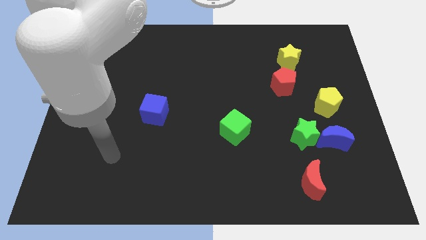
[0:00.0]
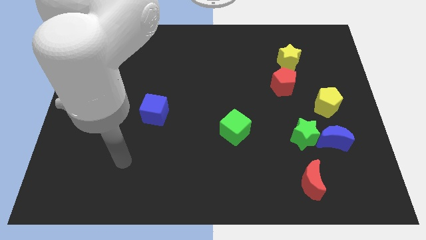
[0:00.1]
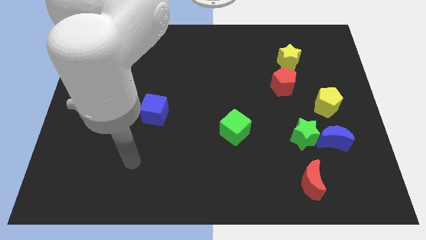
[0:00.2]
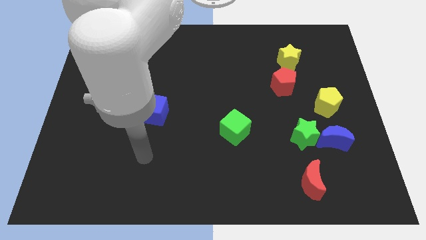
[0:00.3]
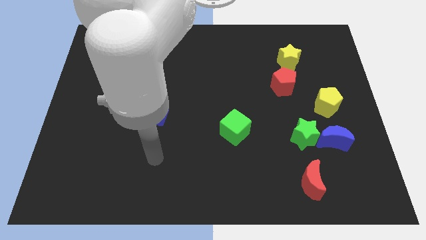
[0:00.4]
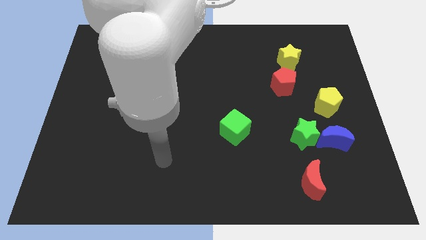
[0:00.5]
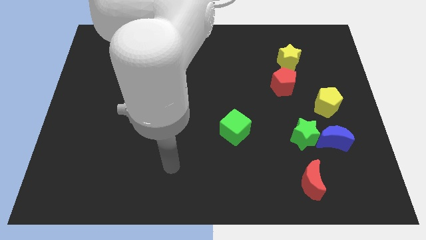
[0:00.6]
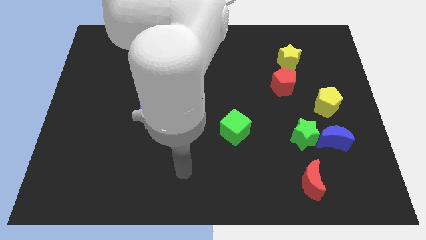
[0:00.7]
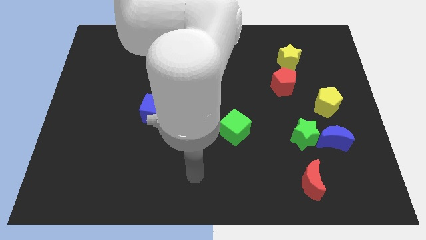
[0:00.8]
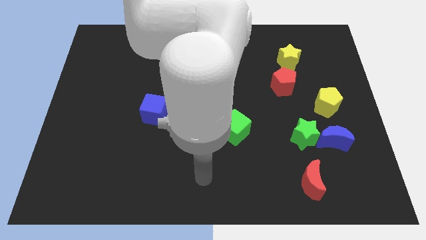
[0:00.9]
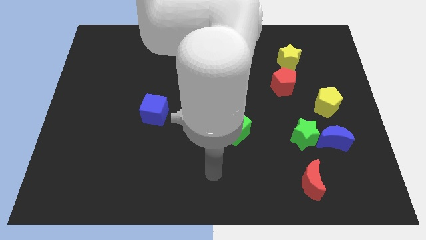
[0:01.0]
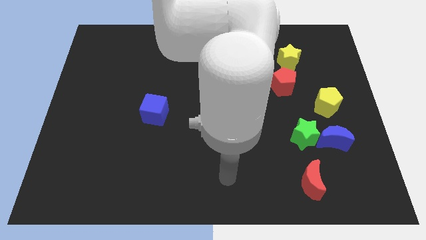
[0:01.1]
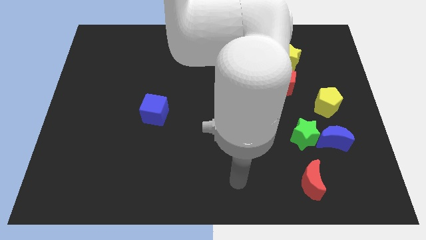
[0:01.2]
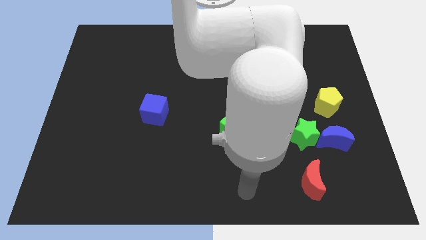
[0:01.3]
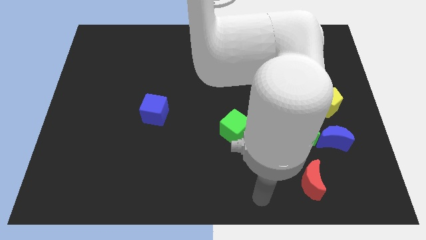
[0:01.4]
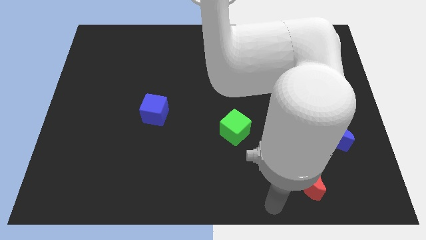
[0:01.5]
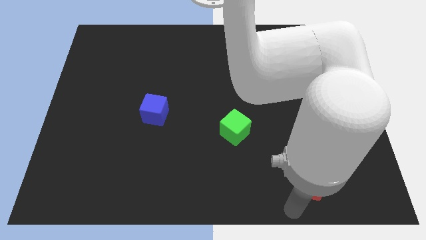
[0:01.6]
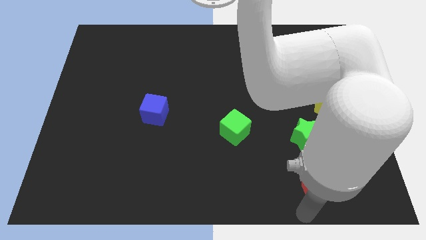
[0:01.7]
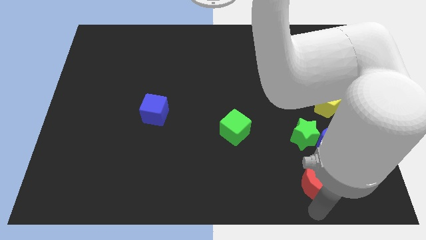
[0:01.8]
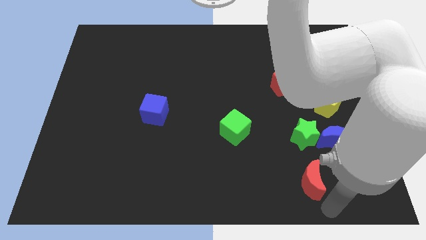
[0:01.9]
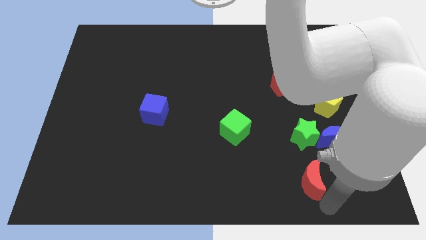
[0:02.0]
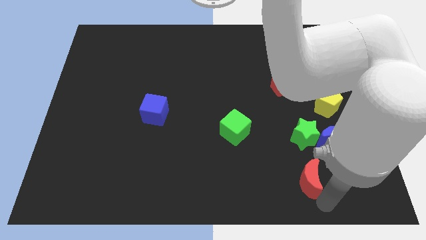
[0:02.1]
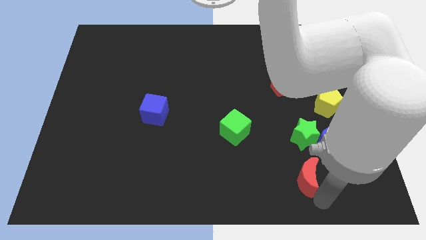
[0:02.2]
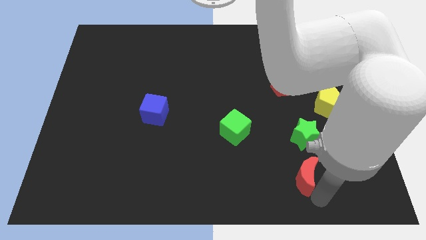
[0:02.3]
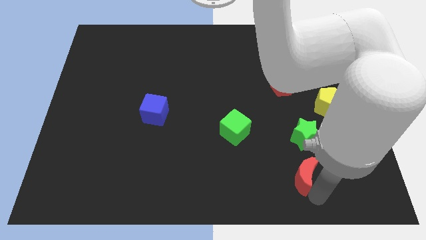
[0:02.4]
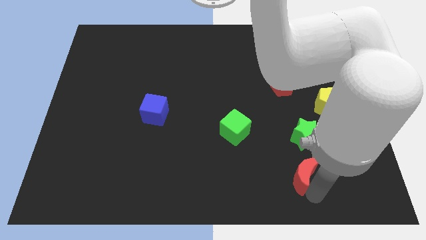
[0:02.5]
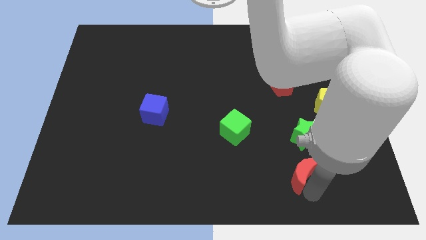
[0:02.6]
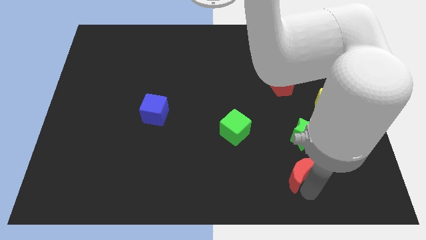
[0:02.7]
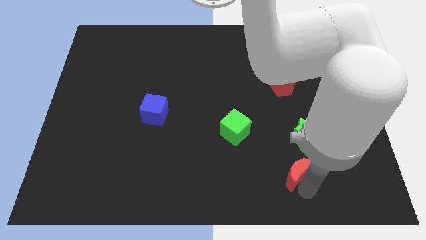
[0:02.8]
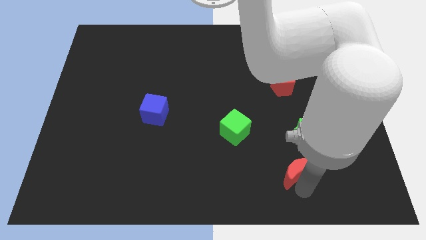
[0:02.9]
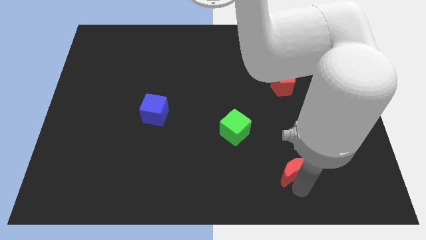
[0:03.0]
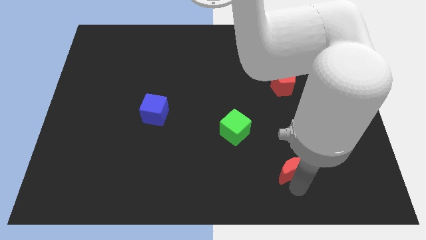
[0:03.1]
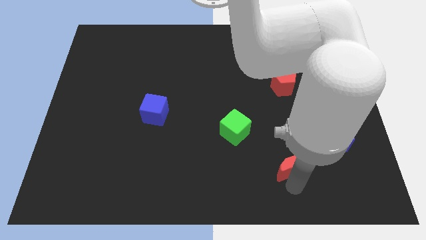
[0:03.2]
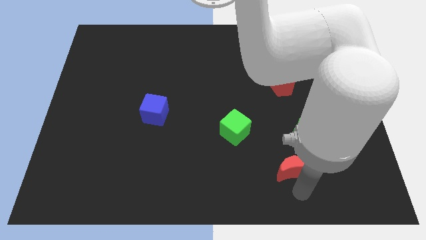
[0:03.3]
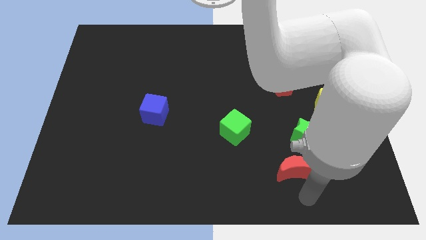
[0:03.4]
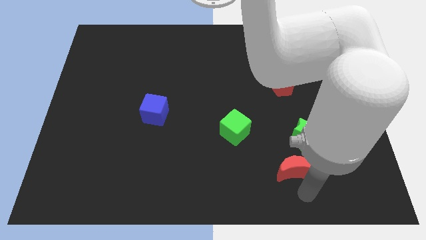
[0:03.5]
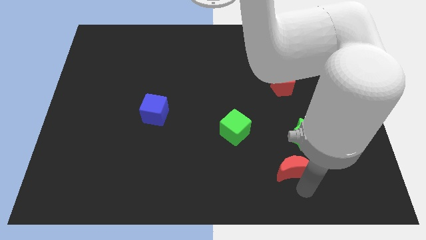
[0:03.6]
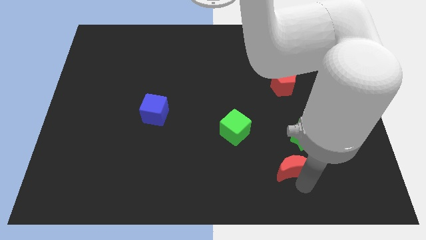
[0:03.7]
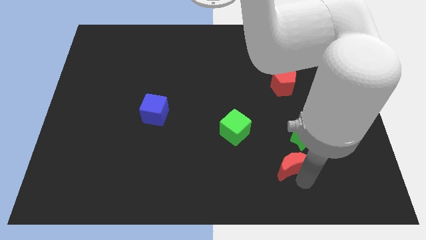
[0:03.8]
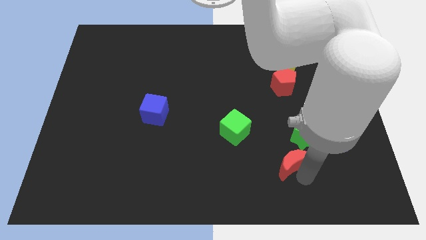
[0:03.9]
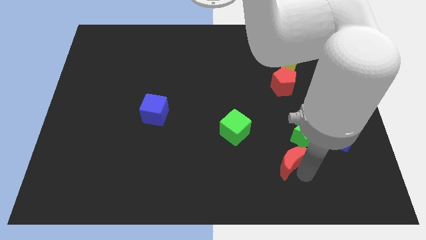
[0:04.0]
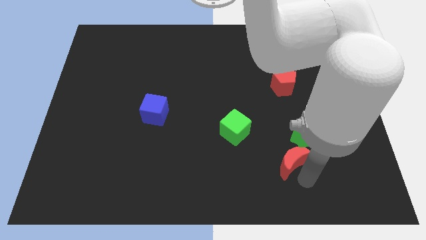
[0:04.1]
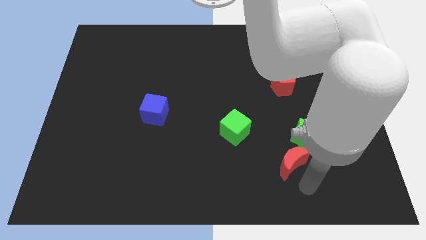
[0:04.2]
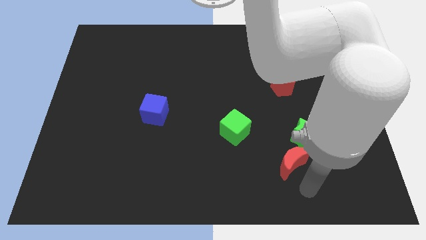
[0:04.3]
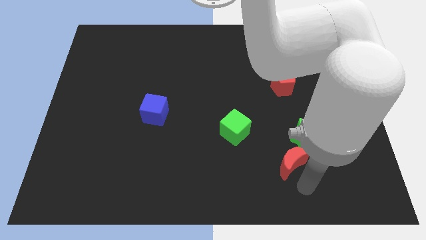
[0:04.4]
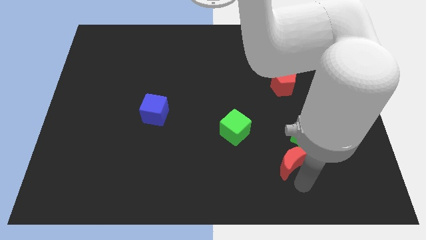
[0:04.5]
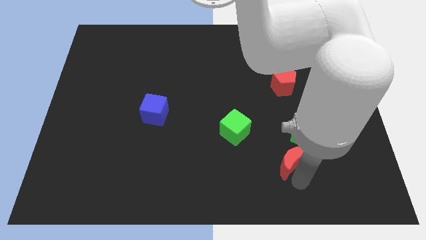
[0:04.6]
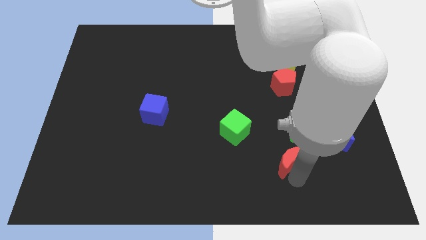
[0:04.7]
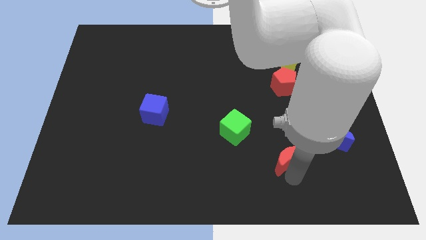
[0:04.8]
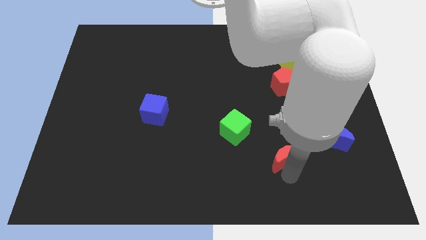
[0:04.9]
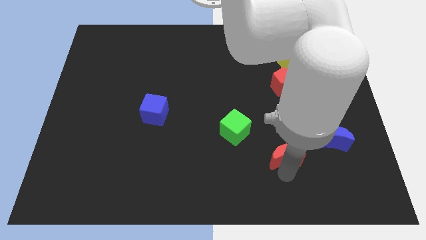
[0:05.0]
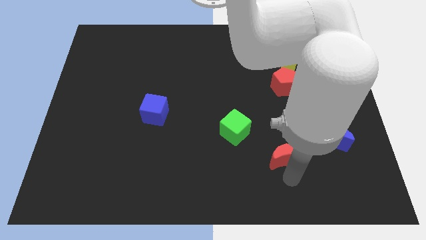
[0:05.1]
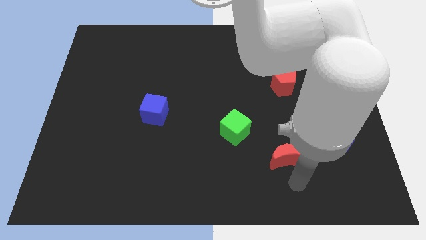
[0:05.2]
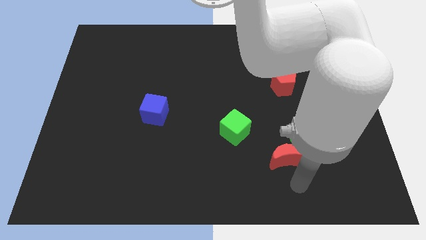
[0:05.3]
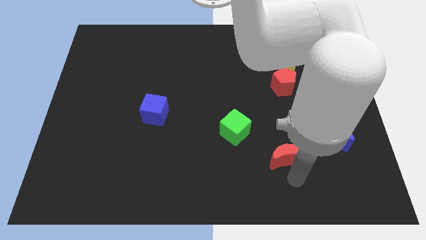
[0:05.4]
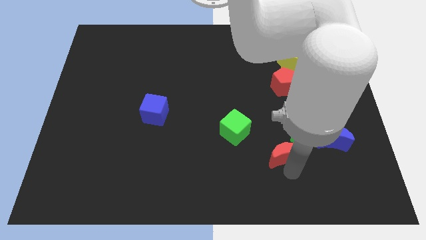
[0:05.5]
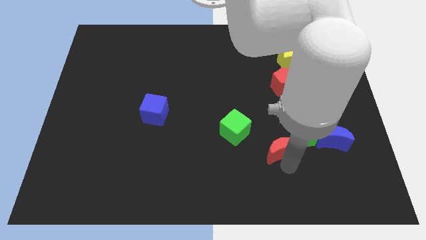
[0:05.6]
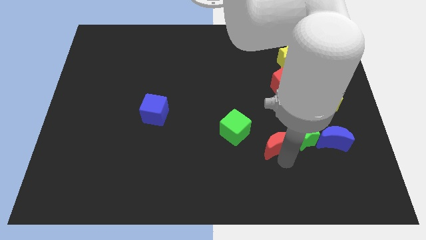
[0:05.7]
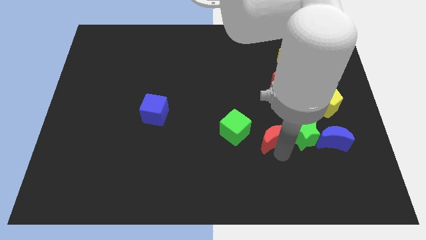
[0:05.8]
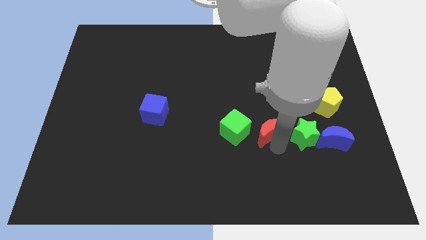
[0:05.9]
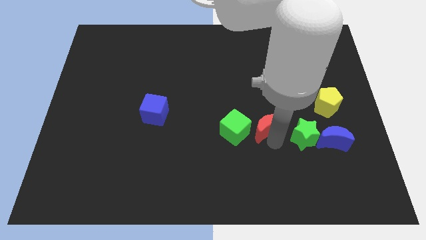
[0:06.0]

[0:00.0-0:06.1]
slide the red moon diagonally up and to the right of the green cube
